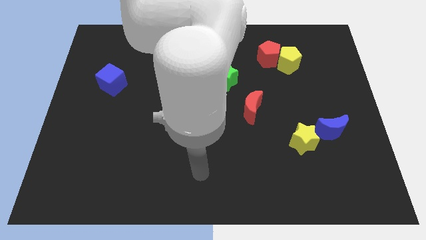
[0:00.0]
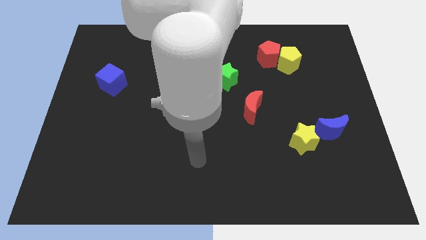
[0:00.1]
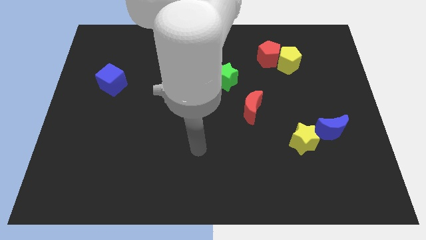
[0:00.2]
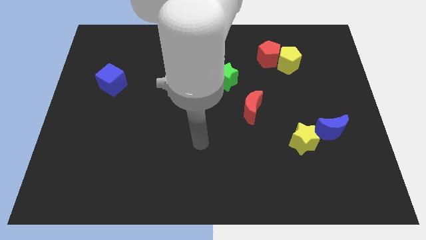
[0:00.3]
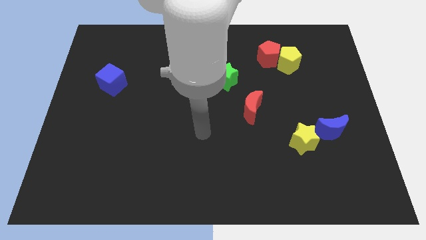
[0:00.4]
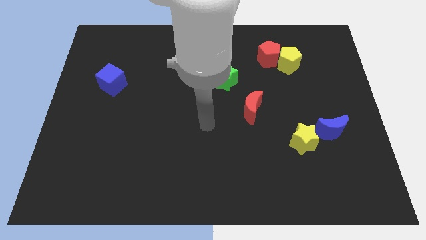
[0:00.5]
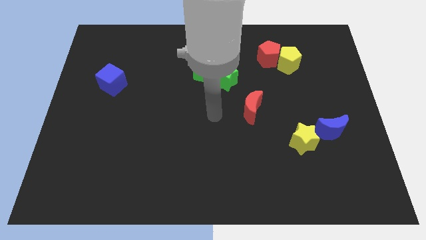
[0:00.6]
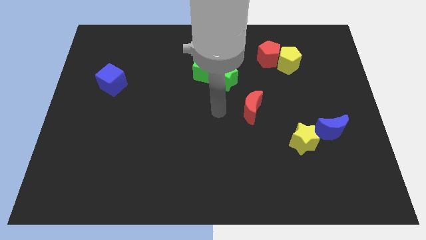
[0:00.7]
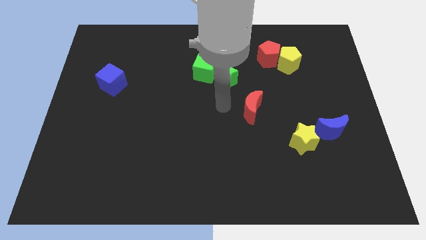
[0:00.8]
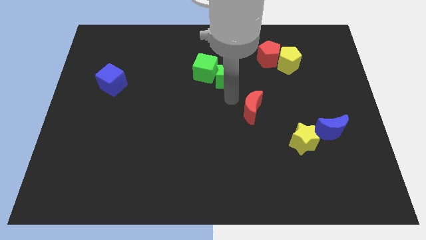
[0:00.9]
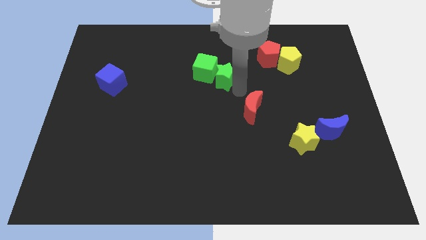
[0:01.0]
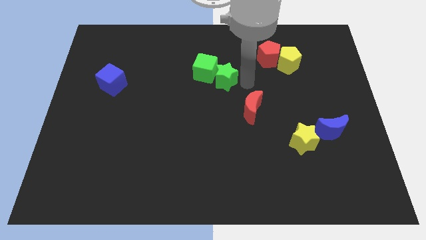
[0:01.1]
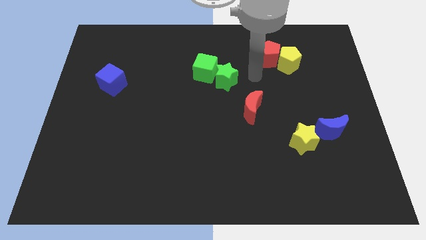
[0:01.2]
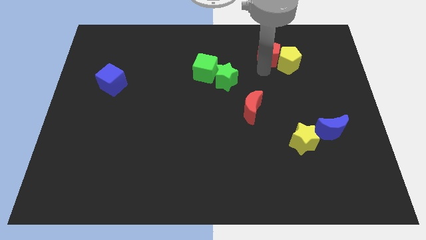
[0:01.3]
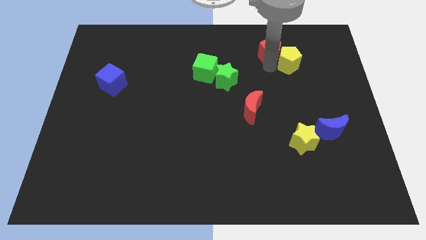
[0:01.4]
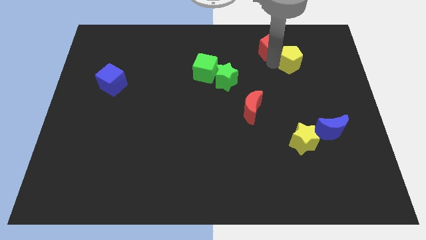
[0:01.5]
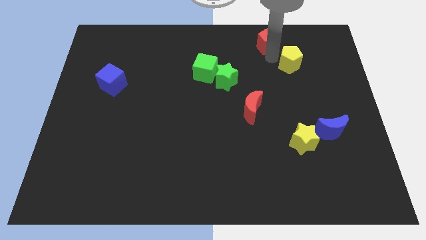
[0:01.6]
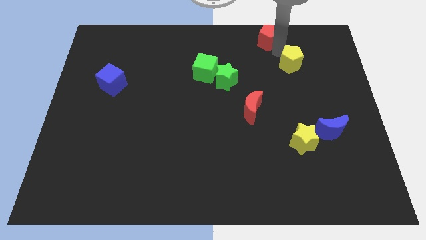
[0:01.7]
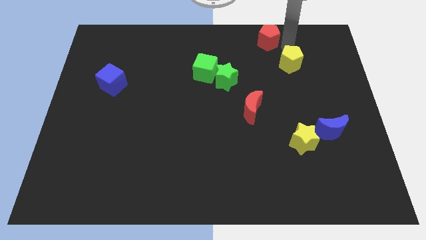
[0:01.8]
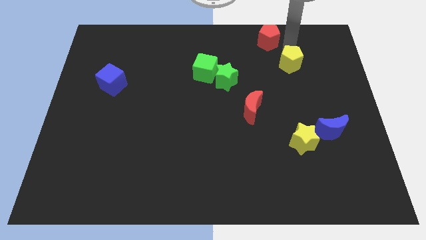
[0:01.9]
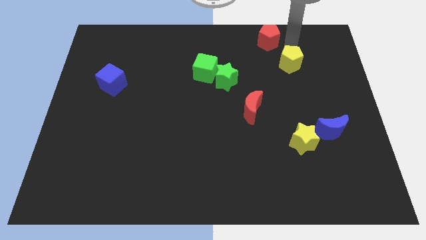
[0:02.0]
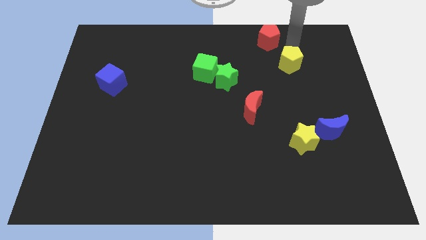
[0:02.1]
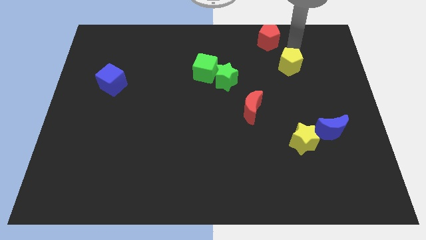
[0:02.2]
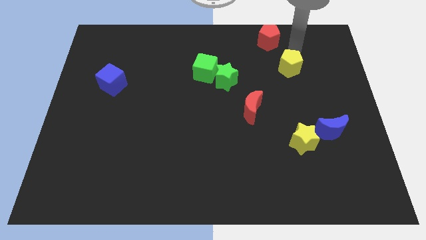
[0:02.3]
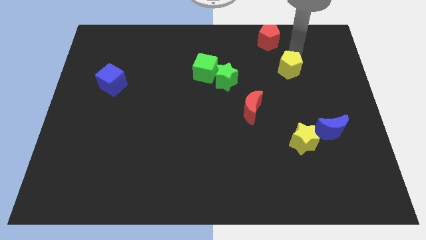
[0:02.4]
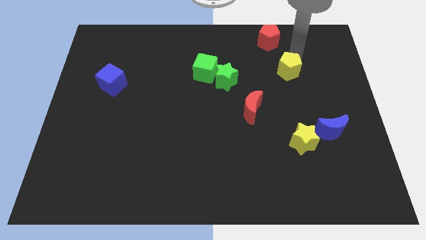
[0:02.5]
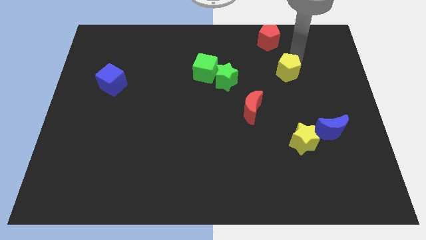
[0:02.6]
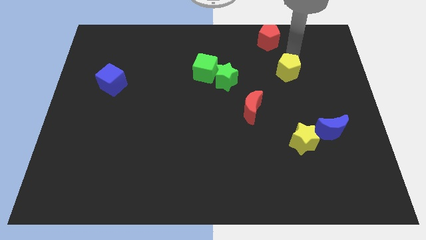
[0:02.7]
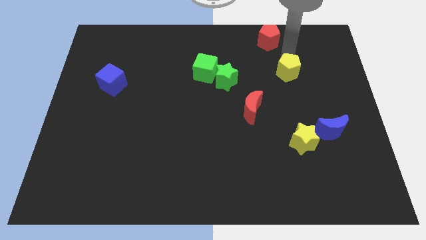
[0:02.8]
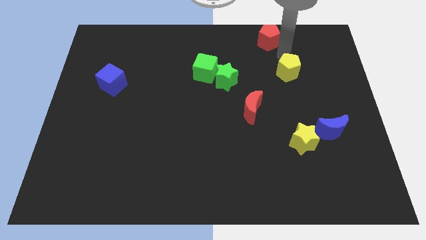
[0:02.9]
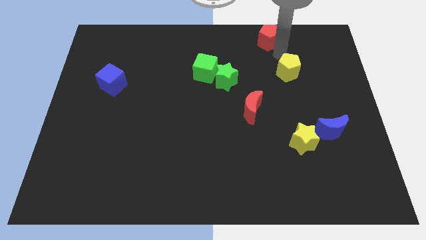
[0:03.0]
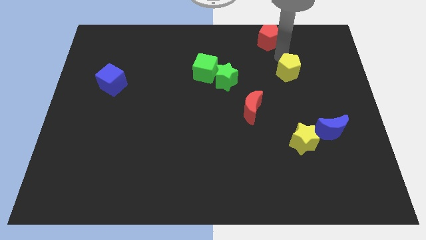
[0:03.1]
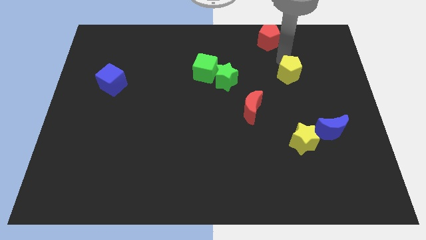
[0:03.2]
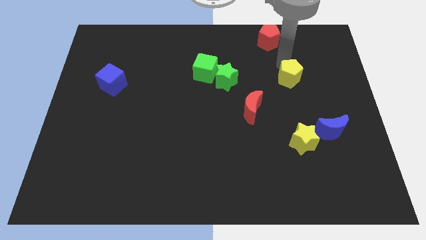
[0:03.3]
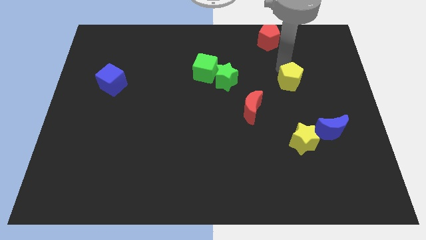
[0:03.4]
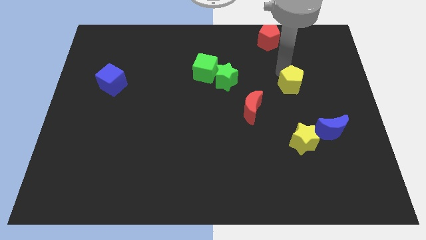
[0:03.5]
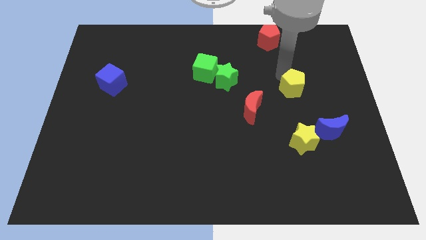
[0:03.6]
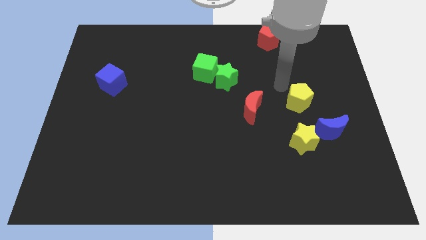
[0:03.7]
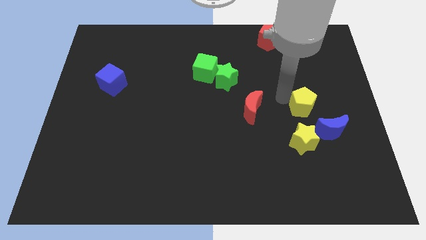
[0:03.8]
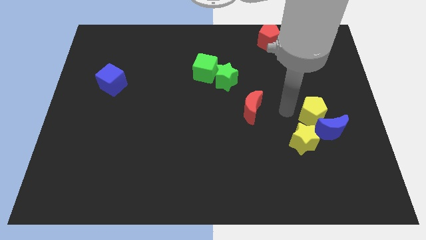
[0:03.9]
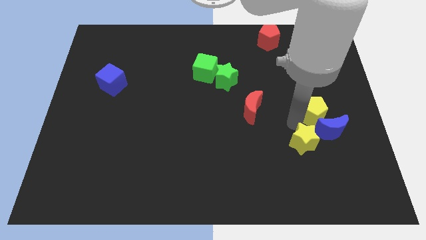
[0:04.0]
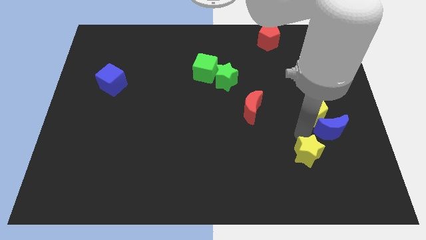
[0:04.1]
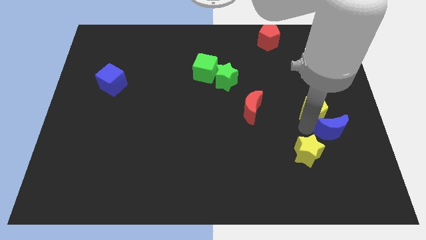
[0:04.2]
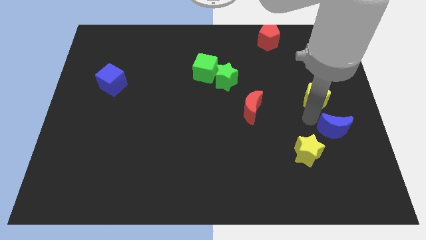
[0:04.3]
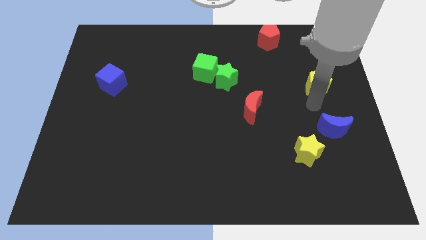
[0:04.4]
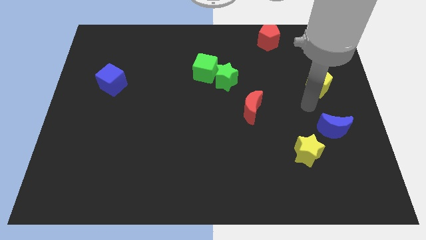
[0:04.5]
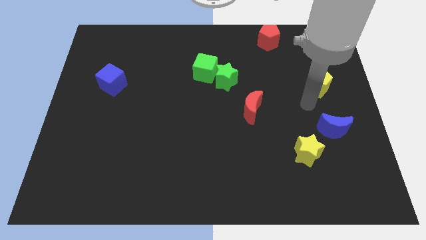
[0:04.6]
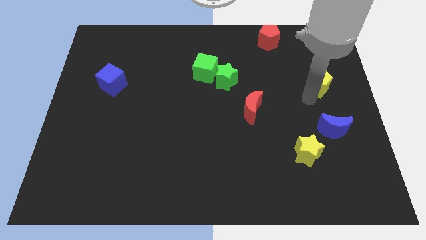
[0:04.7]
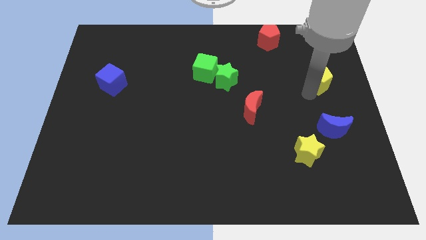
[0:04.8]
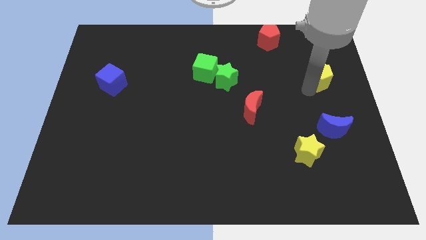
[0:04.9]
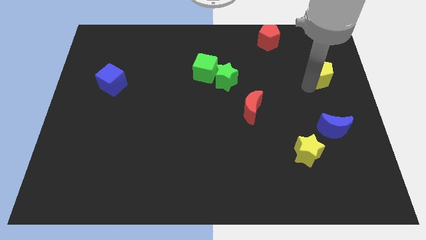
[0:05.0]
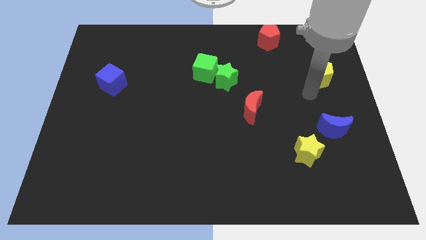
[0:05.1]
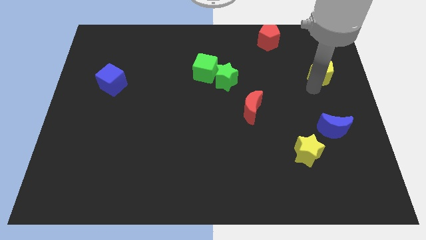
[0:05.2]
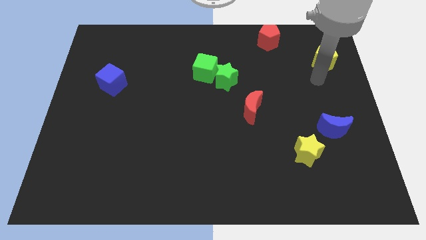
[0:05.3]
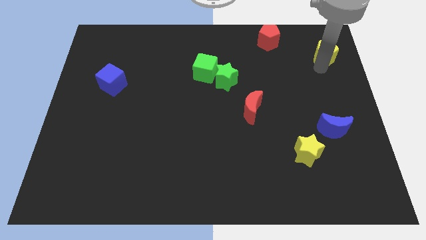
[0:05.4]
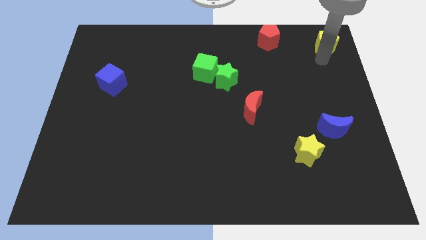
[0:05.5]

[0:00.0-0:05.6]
slide the yellow pentagon to the top right of the board
